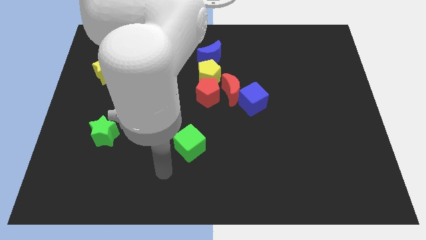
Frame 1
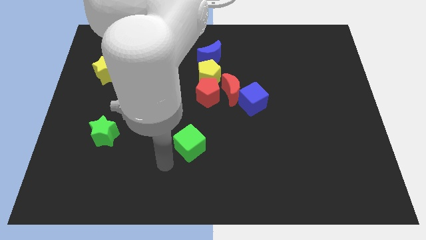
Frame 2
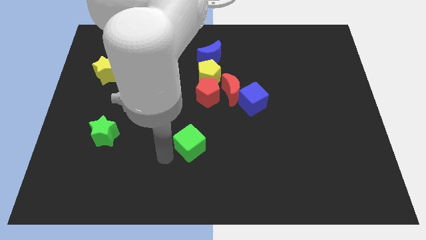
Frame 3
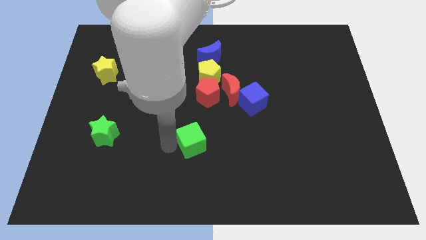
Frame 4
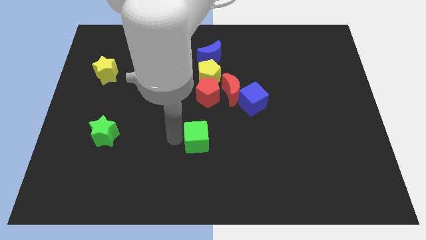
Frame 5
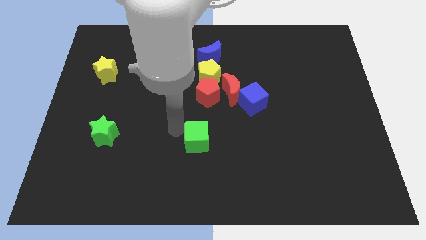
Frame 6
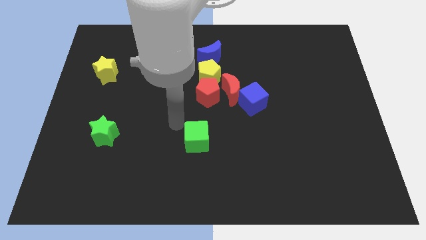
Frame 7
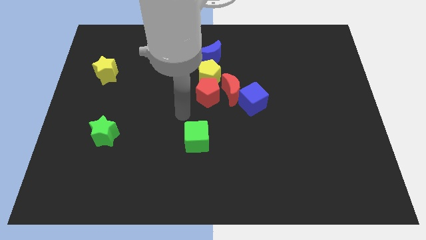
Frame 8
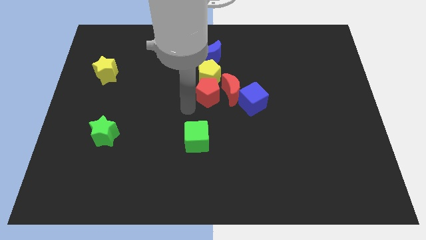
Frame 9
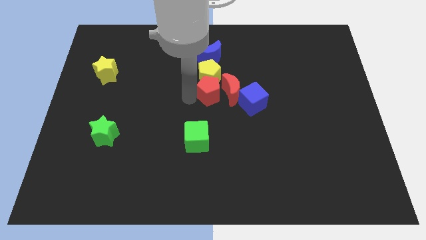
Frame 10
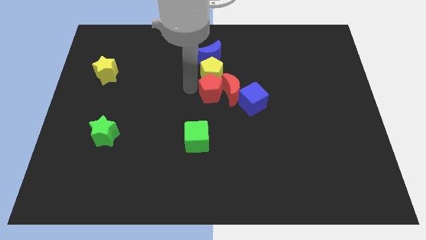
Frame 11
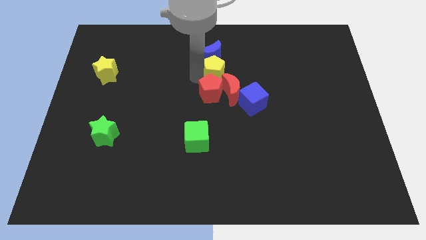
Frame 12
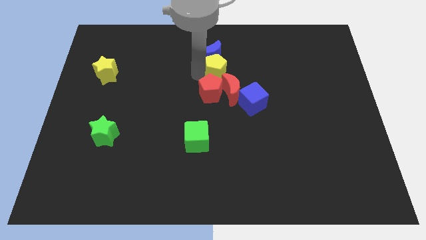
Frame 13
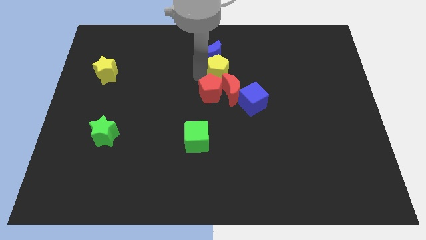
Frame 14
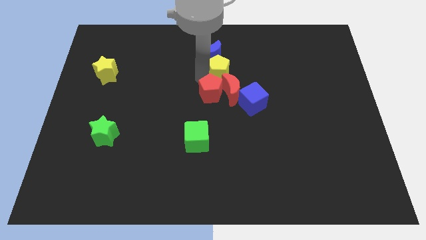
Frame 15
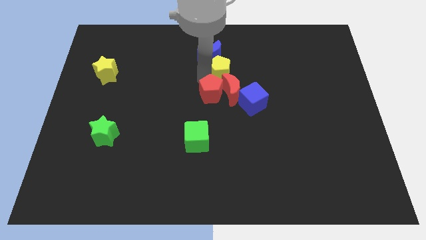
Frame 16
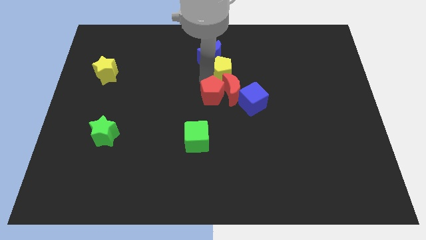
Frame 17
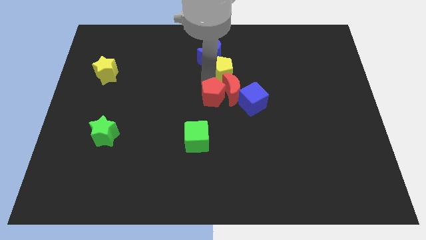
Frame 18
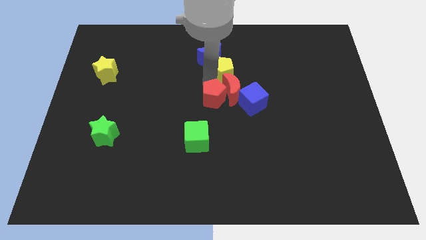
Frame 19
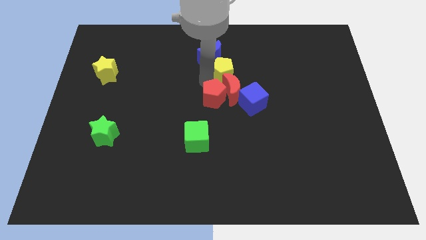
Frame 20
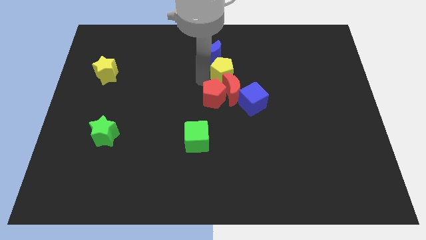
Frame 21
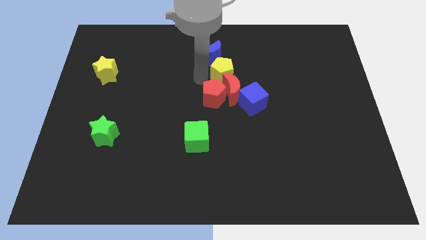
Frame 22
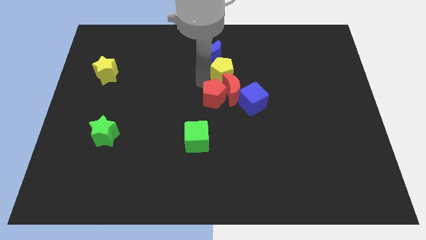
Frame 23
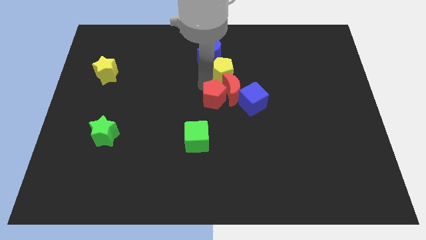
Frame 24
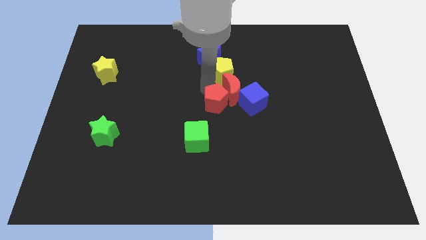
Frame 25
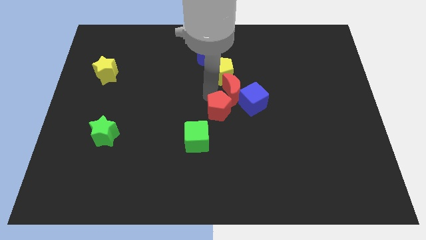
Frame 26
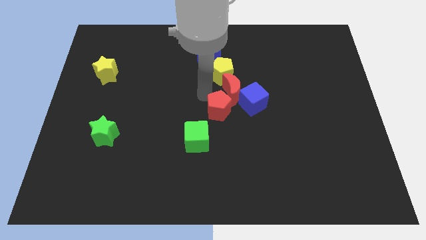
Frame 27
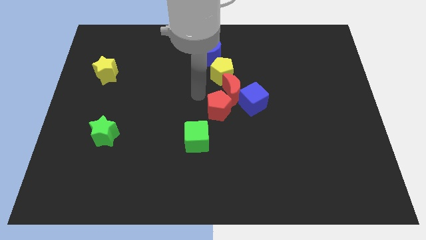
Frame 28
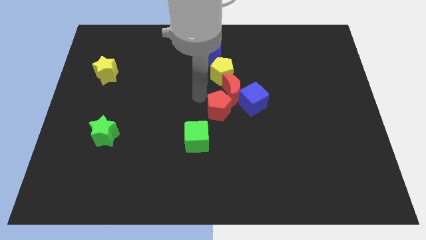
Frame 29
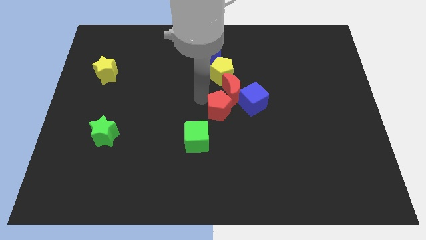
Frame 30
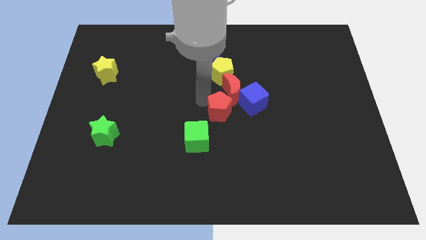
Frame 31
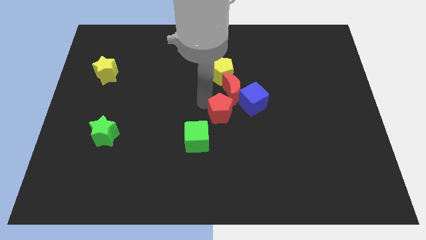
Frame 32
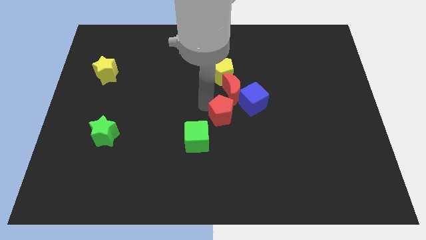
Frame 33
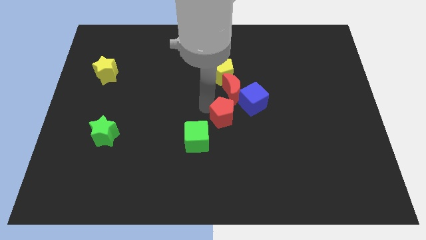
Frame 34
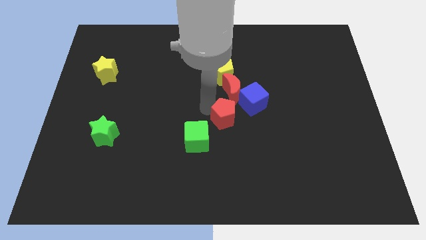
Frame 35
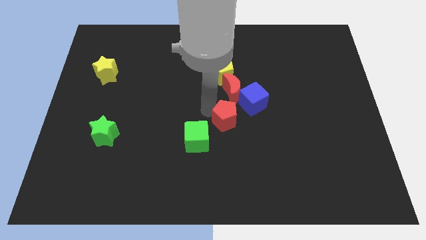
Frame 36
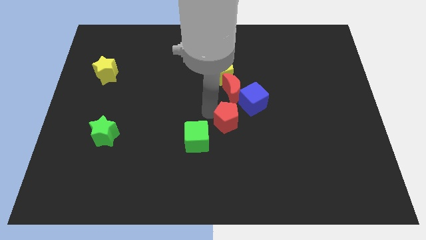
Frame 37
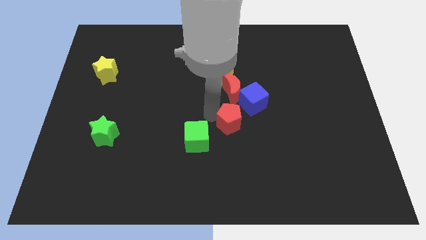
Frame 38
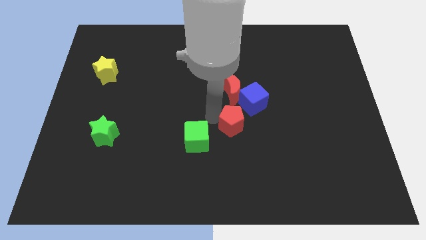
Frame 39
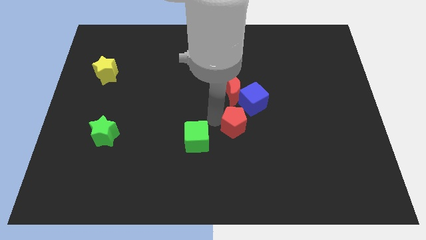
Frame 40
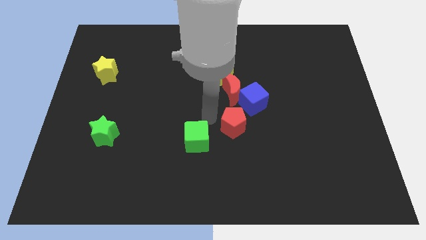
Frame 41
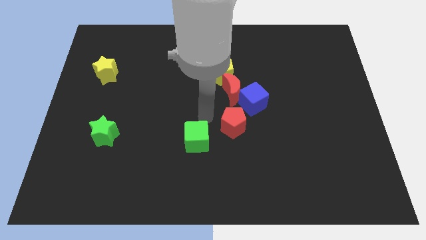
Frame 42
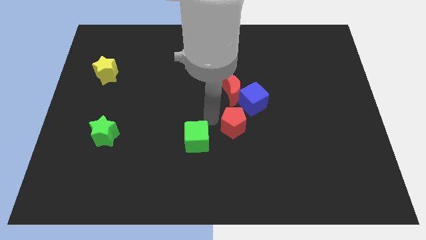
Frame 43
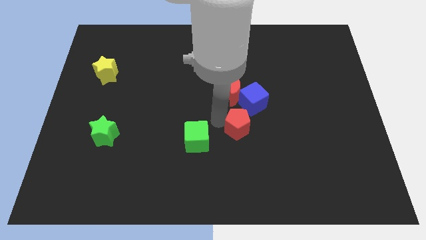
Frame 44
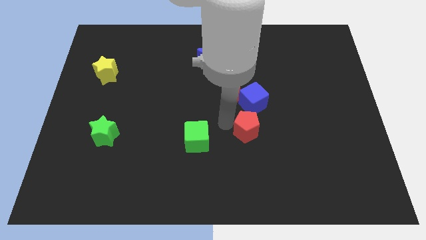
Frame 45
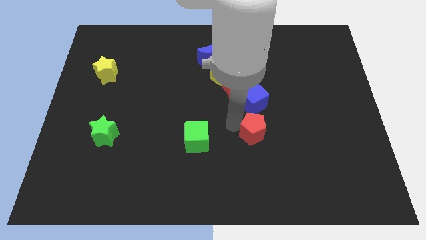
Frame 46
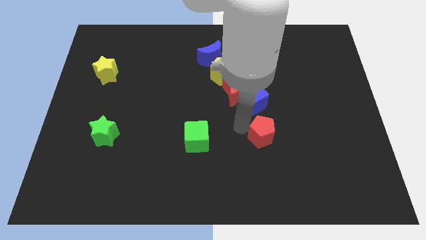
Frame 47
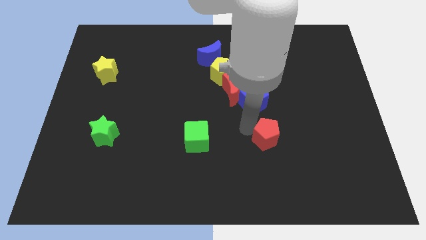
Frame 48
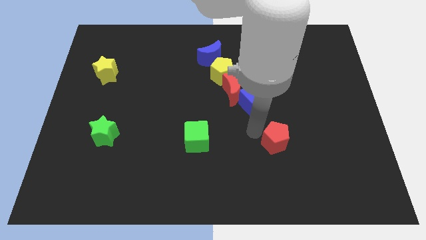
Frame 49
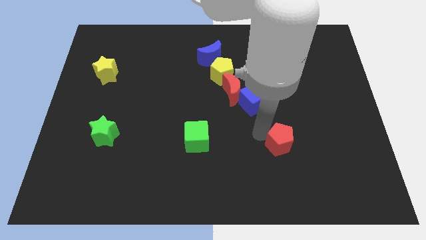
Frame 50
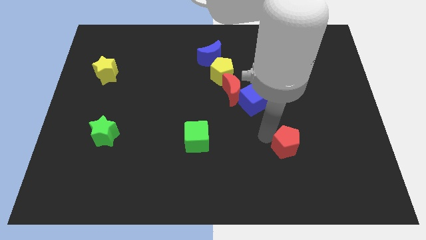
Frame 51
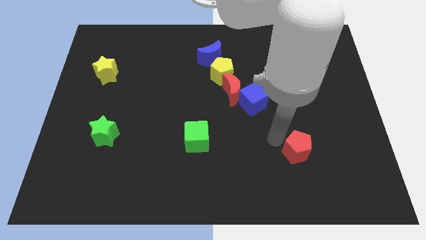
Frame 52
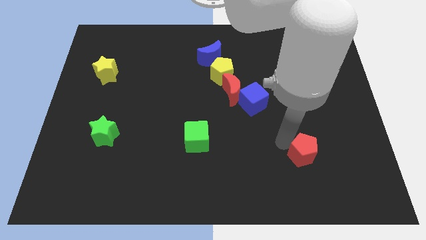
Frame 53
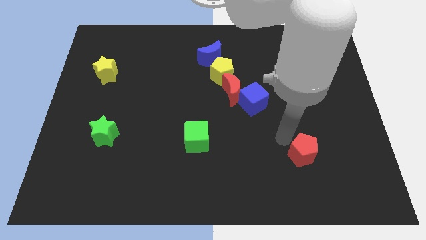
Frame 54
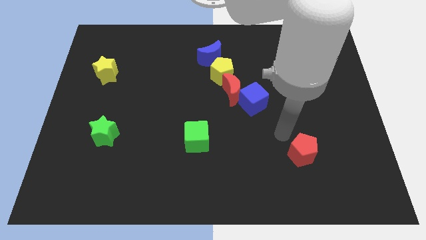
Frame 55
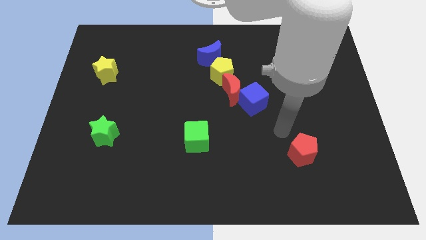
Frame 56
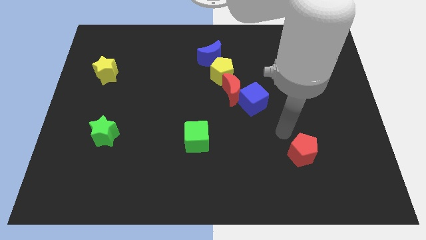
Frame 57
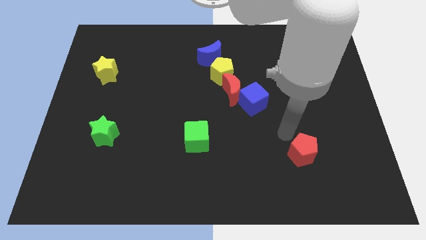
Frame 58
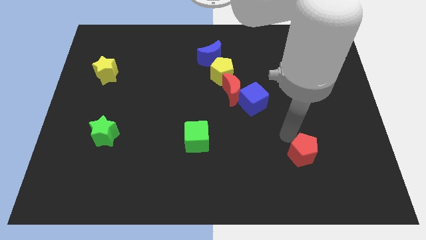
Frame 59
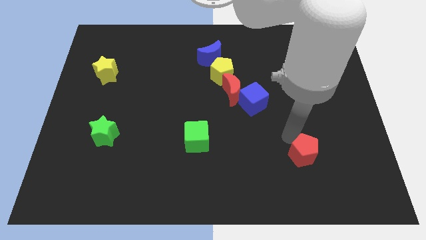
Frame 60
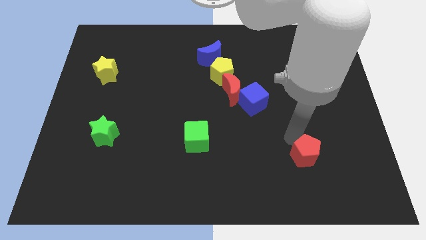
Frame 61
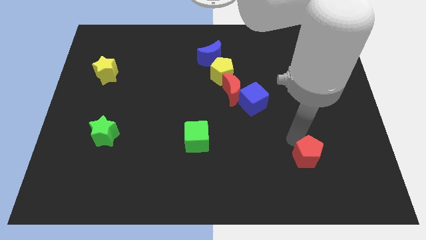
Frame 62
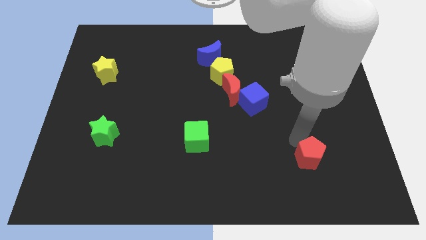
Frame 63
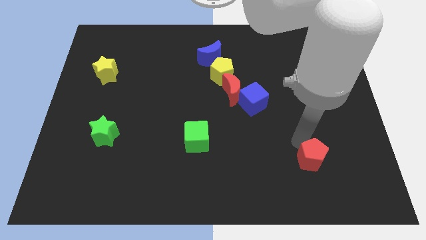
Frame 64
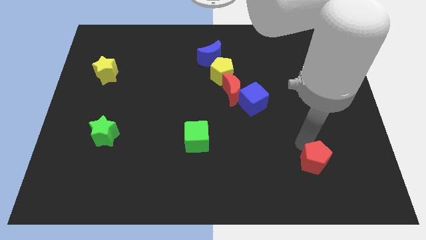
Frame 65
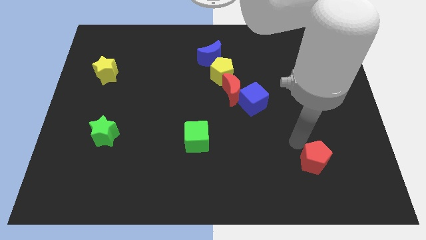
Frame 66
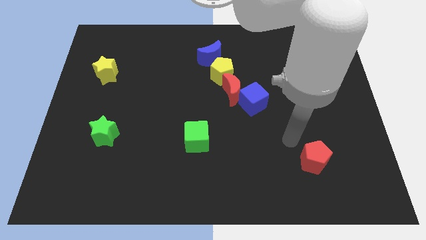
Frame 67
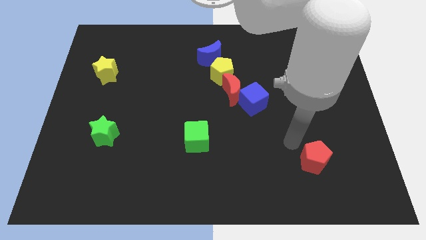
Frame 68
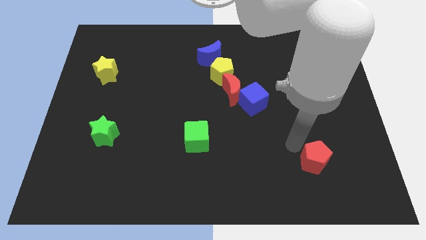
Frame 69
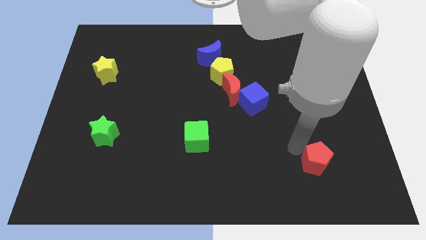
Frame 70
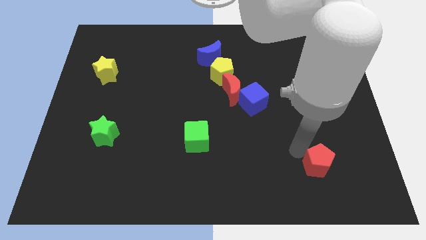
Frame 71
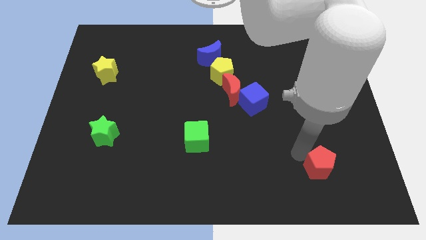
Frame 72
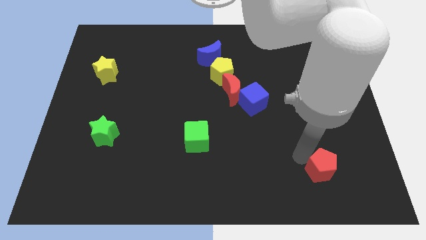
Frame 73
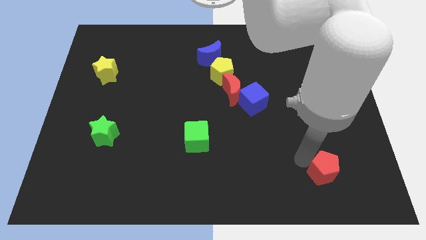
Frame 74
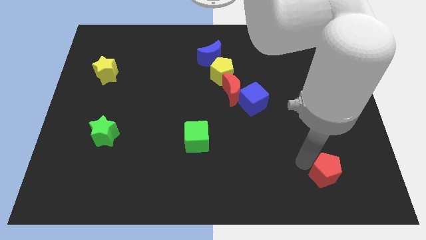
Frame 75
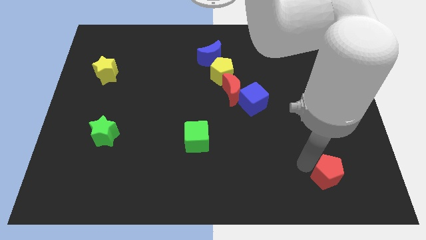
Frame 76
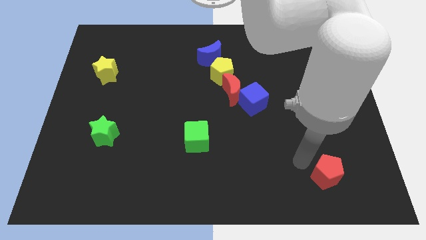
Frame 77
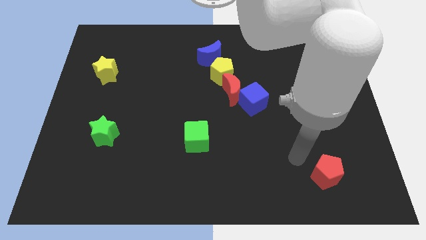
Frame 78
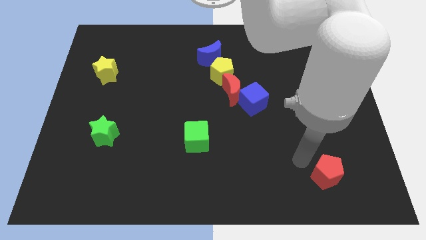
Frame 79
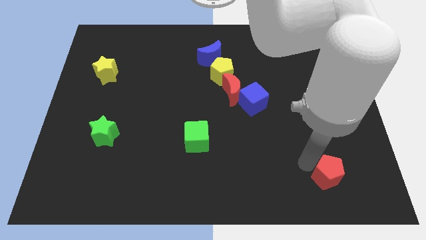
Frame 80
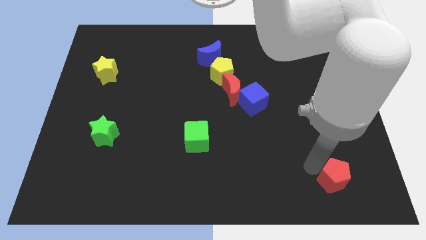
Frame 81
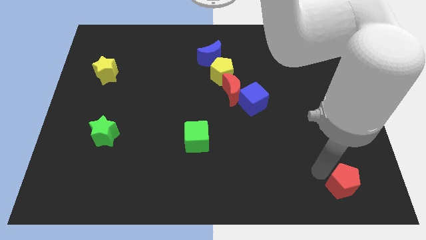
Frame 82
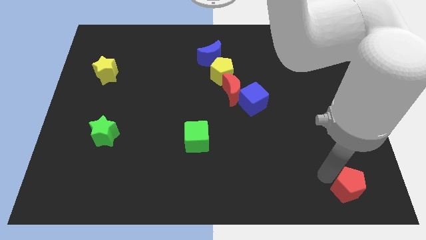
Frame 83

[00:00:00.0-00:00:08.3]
move the red pentagon to the bottom right
